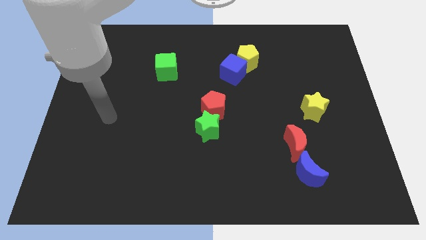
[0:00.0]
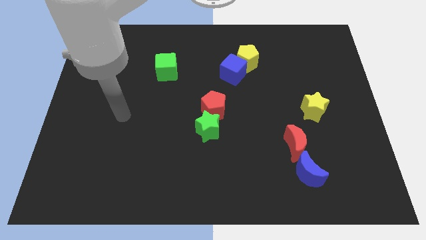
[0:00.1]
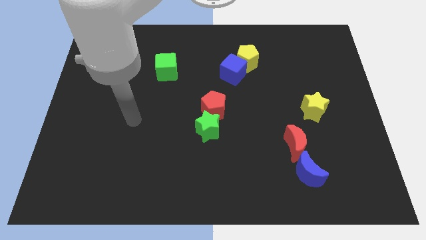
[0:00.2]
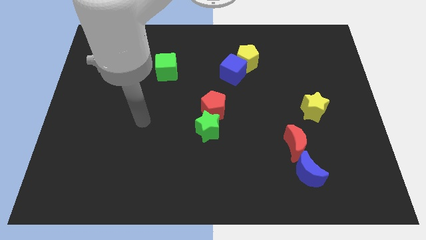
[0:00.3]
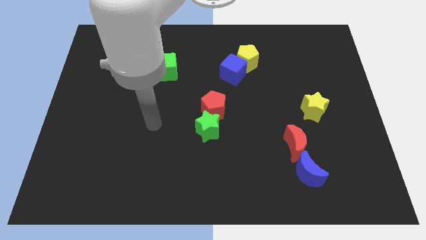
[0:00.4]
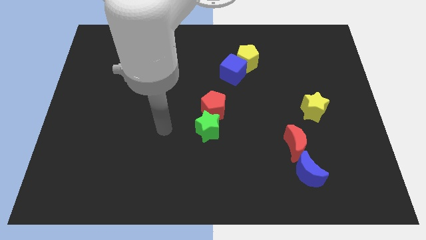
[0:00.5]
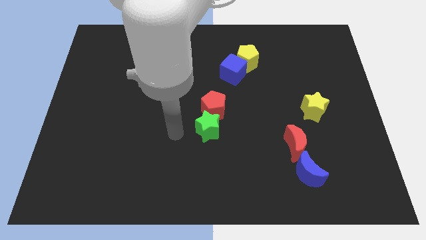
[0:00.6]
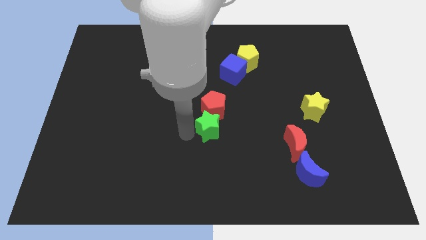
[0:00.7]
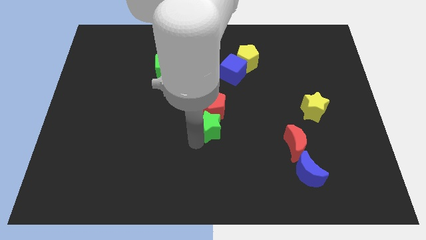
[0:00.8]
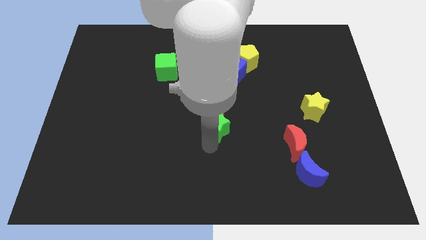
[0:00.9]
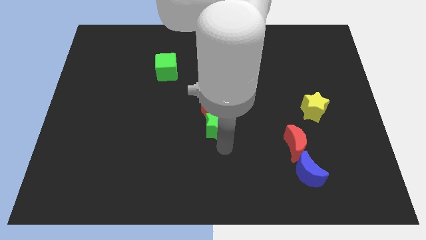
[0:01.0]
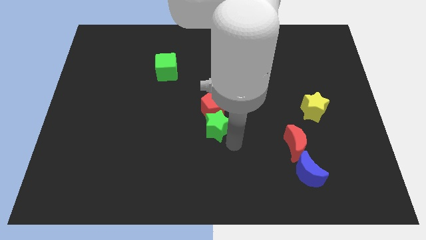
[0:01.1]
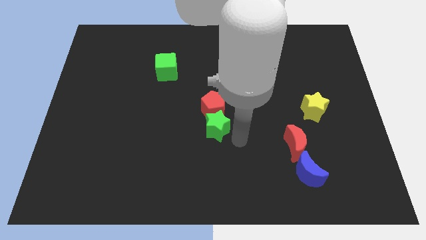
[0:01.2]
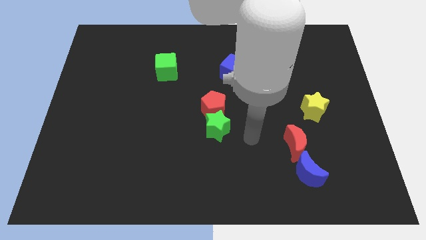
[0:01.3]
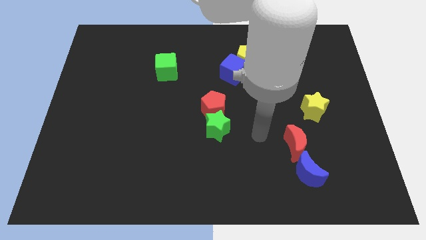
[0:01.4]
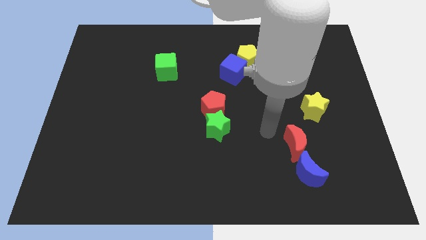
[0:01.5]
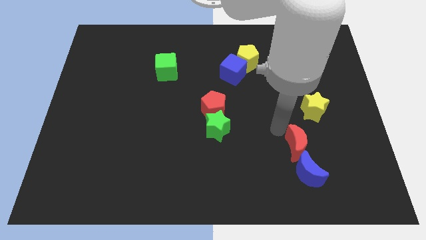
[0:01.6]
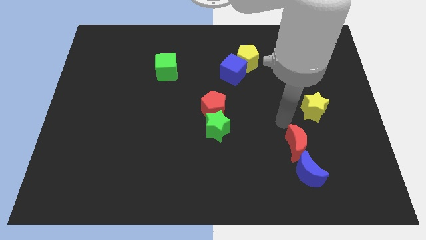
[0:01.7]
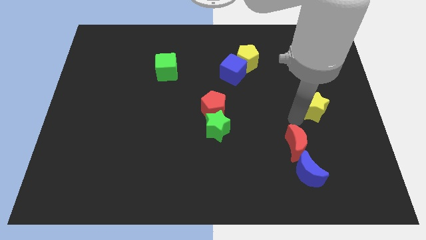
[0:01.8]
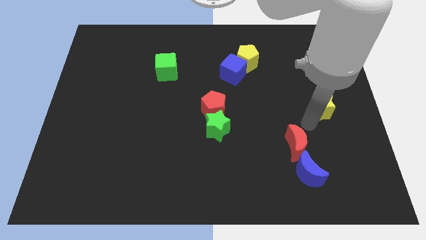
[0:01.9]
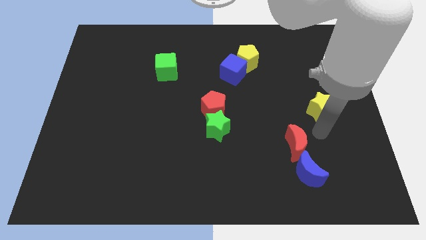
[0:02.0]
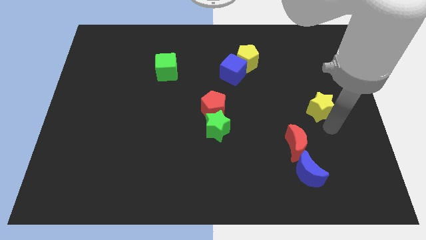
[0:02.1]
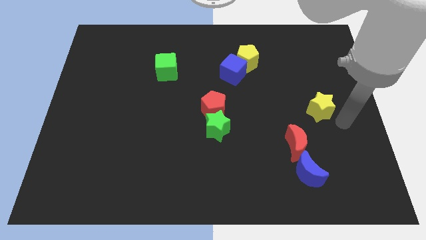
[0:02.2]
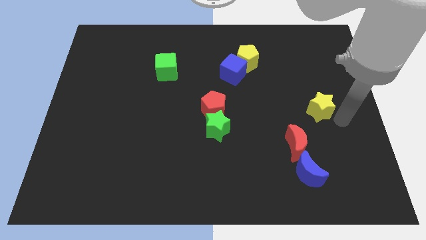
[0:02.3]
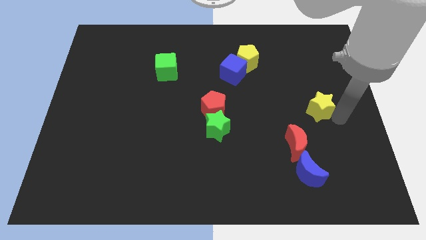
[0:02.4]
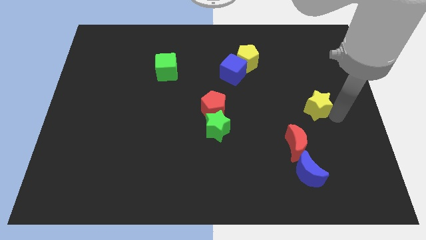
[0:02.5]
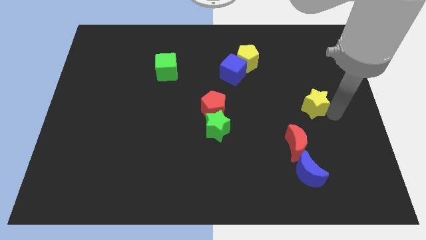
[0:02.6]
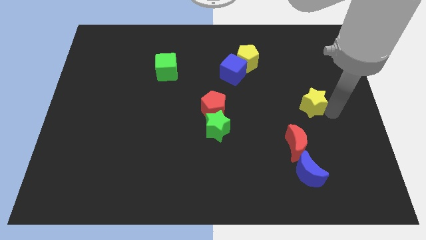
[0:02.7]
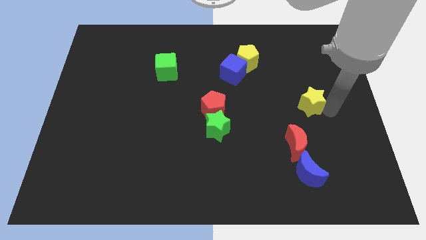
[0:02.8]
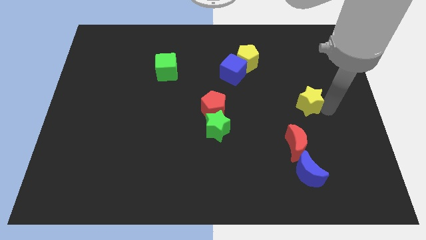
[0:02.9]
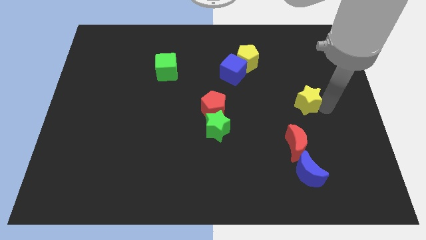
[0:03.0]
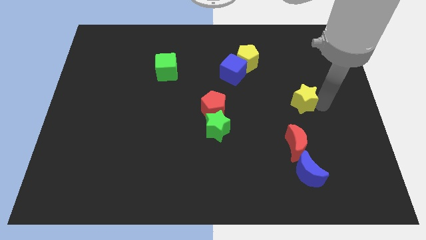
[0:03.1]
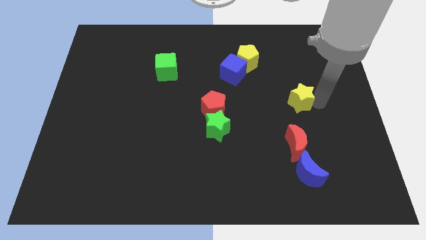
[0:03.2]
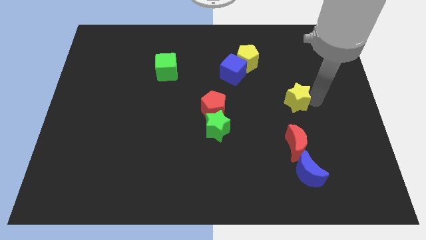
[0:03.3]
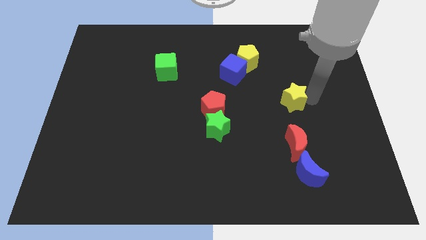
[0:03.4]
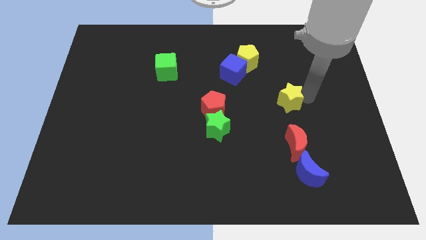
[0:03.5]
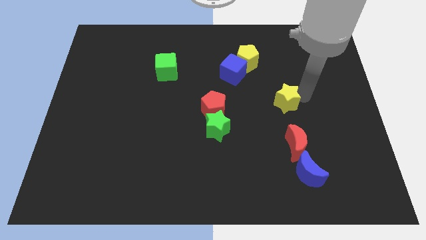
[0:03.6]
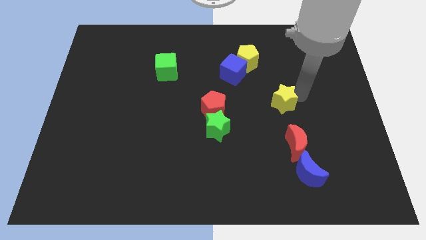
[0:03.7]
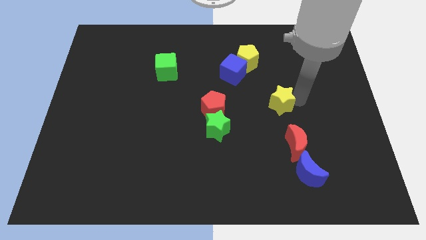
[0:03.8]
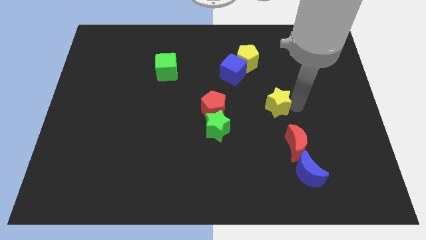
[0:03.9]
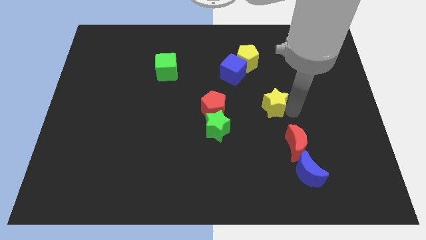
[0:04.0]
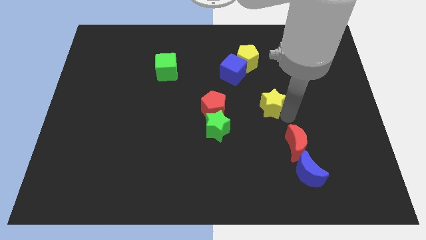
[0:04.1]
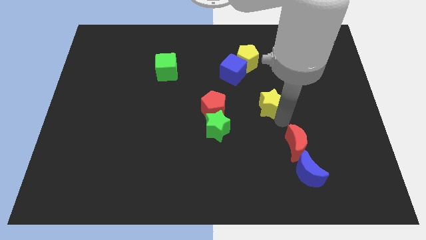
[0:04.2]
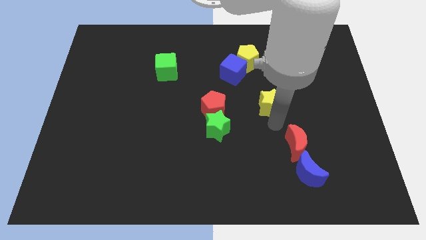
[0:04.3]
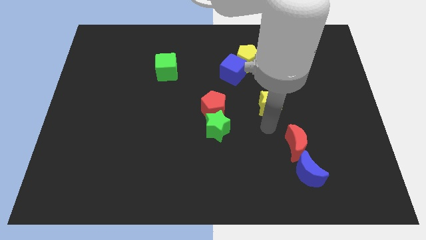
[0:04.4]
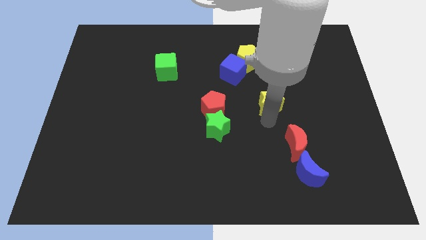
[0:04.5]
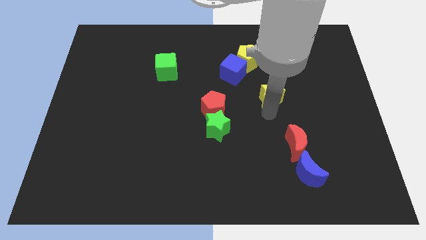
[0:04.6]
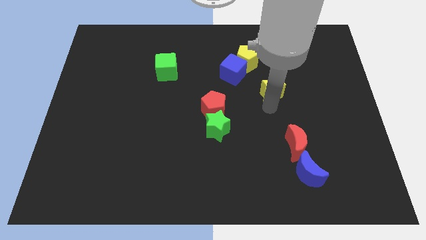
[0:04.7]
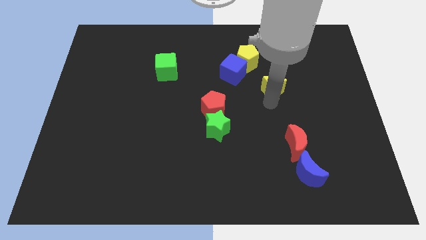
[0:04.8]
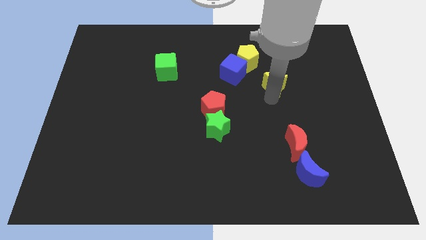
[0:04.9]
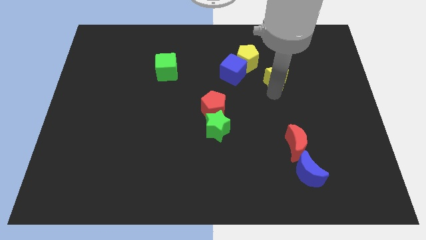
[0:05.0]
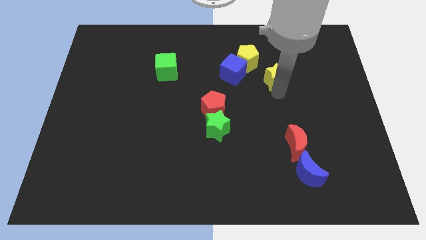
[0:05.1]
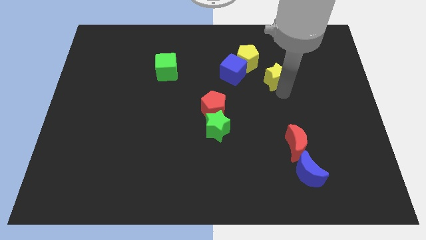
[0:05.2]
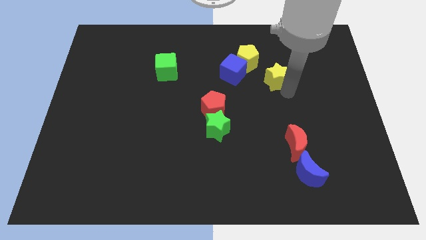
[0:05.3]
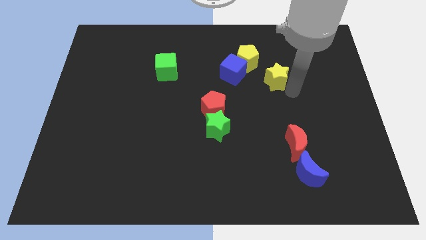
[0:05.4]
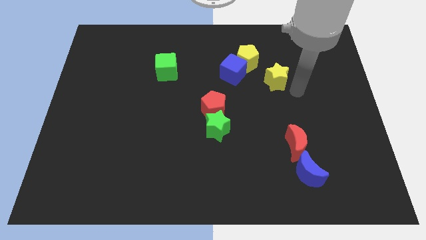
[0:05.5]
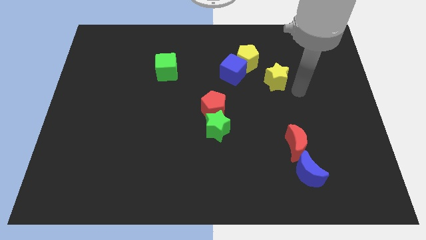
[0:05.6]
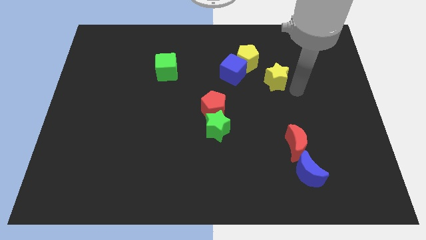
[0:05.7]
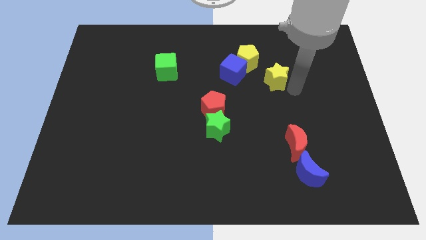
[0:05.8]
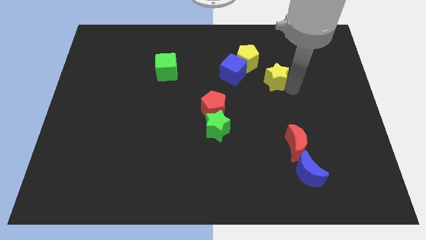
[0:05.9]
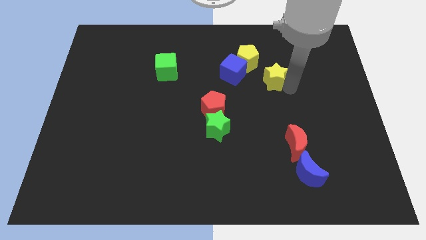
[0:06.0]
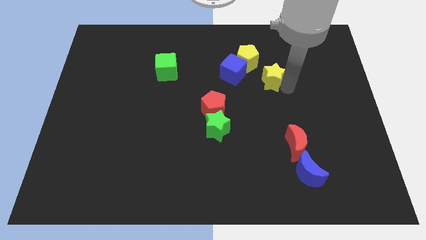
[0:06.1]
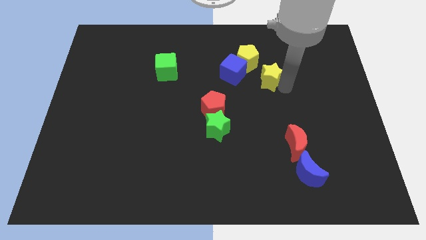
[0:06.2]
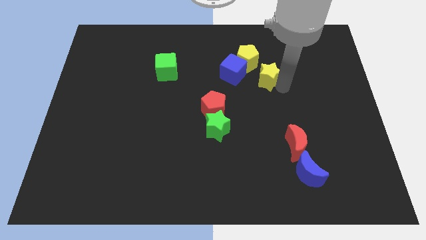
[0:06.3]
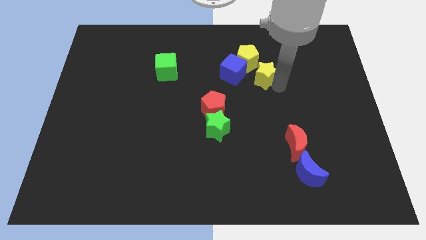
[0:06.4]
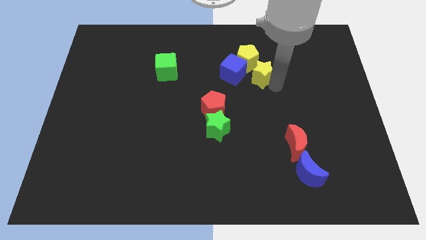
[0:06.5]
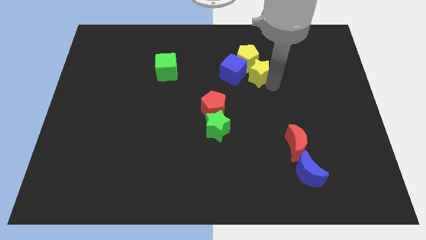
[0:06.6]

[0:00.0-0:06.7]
push the yellow star next to the yellow pentagon

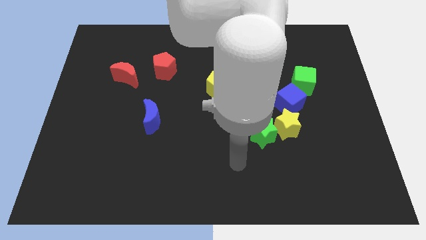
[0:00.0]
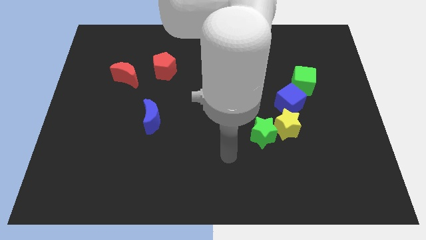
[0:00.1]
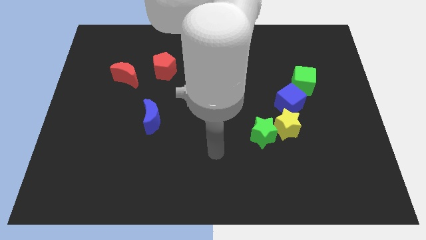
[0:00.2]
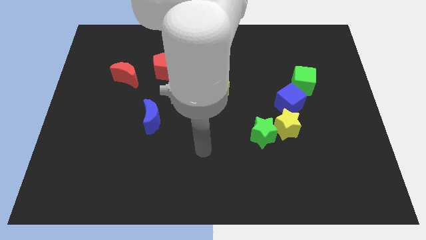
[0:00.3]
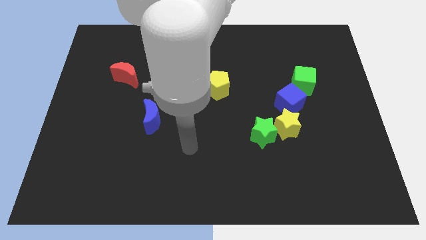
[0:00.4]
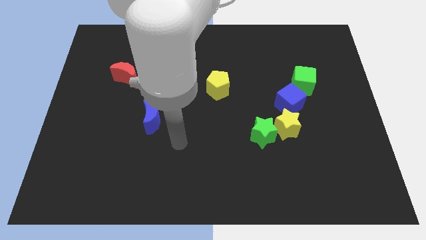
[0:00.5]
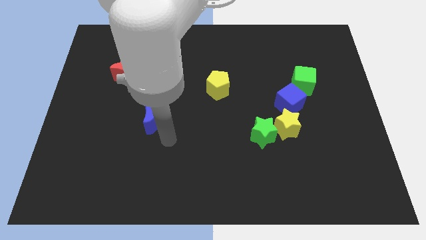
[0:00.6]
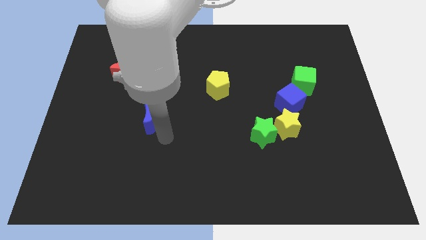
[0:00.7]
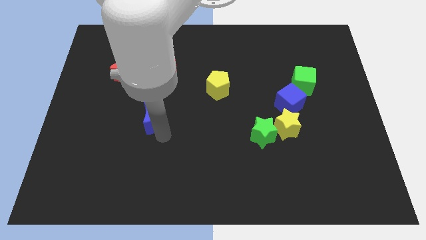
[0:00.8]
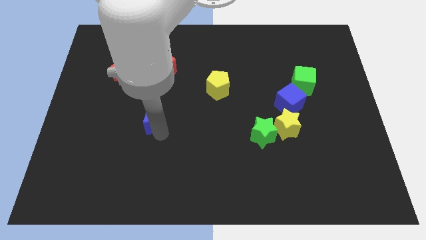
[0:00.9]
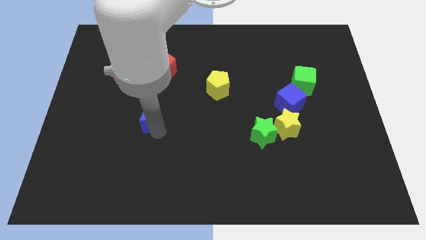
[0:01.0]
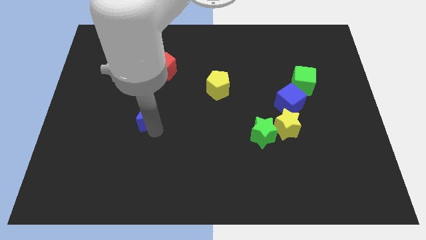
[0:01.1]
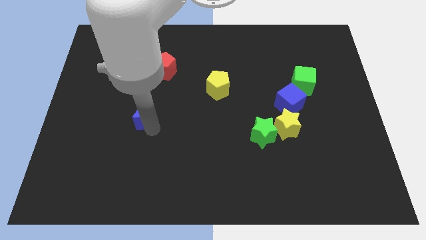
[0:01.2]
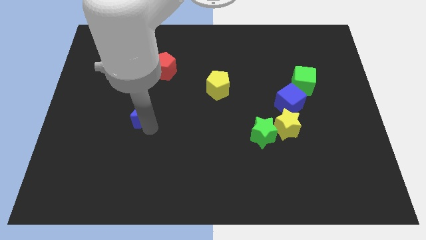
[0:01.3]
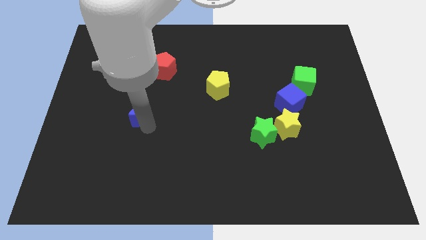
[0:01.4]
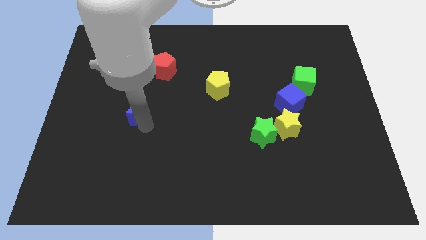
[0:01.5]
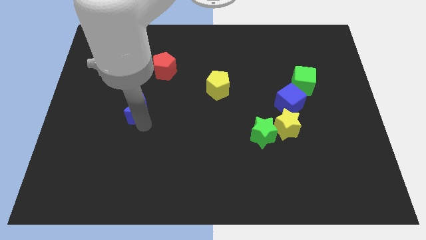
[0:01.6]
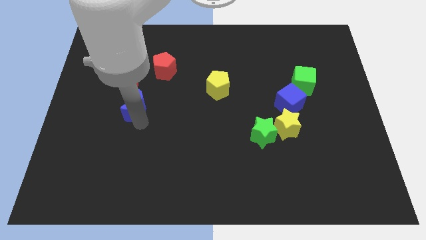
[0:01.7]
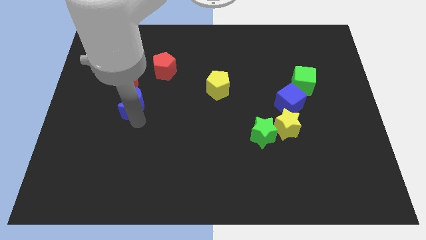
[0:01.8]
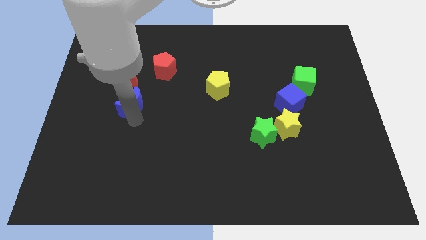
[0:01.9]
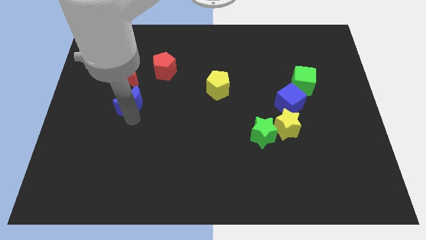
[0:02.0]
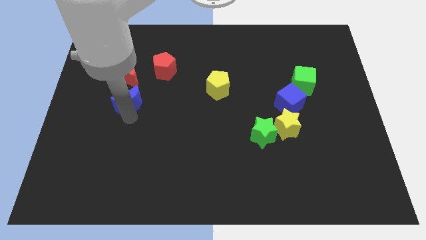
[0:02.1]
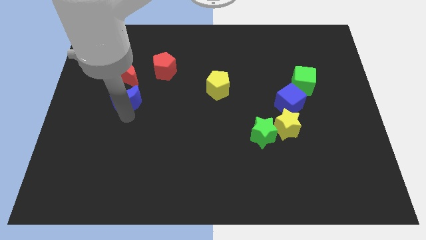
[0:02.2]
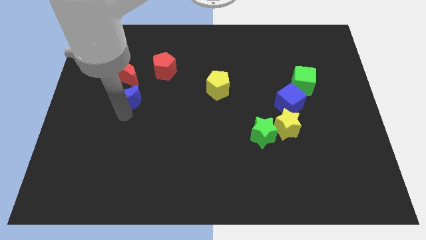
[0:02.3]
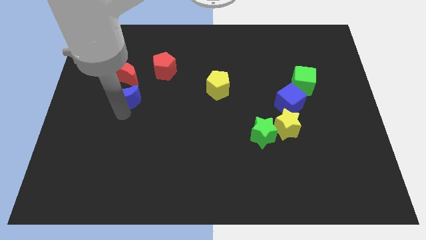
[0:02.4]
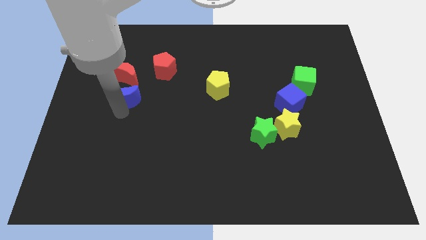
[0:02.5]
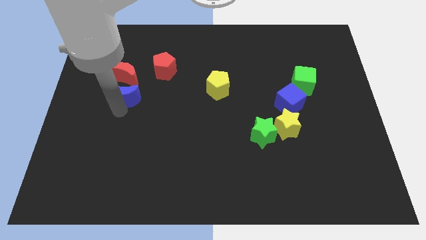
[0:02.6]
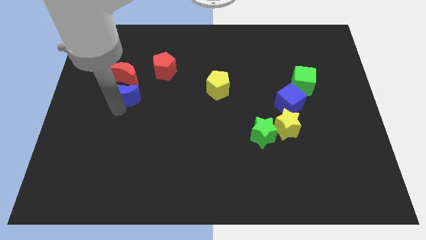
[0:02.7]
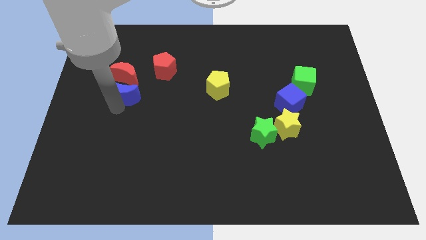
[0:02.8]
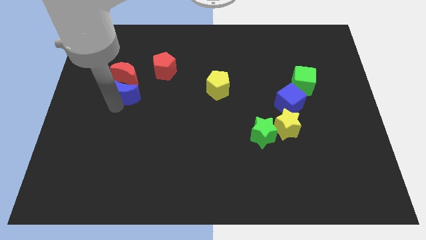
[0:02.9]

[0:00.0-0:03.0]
push the blue moon to the red moon
